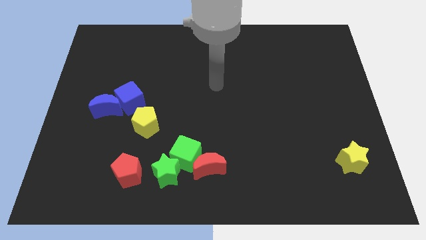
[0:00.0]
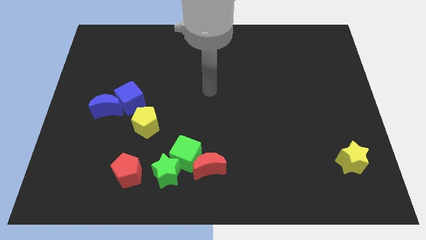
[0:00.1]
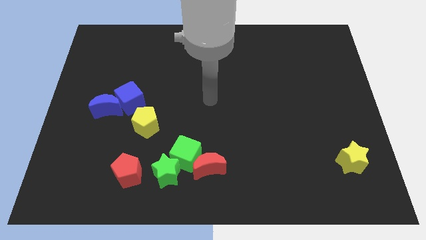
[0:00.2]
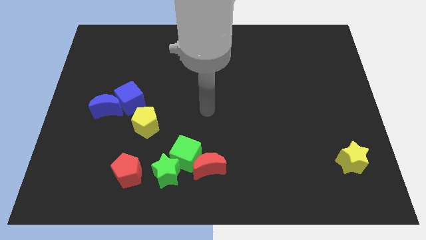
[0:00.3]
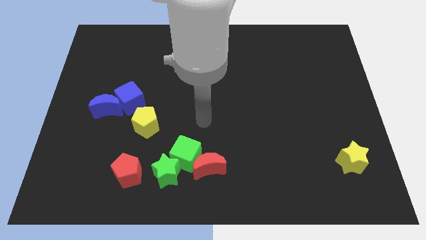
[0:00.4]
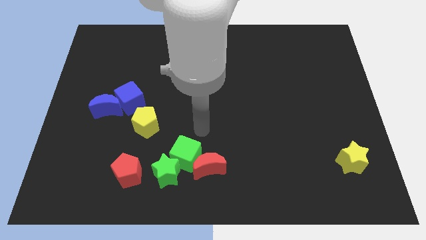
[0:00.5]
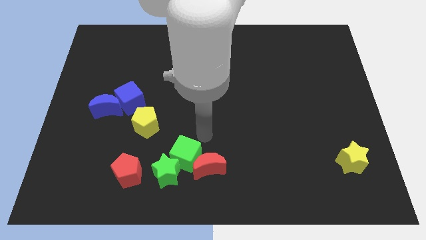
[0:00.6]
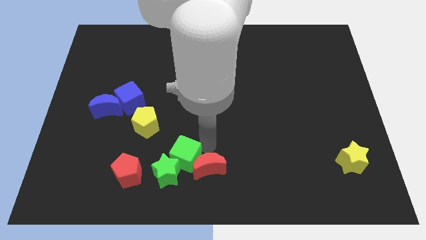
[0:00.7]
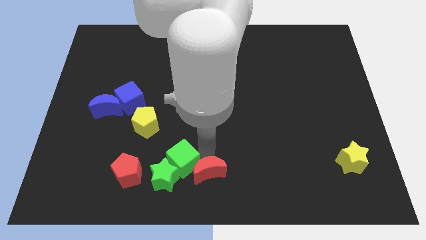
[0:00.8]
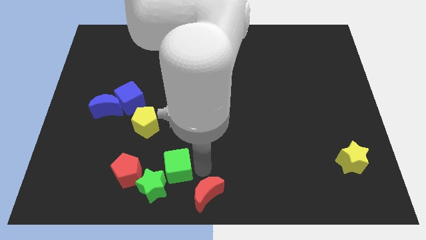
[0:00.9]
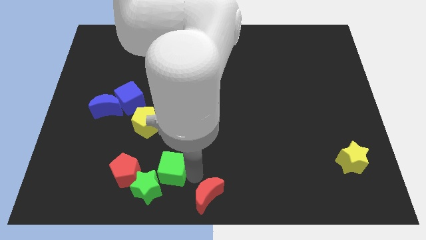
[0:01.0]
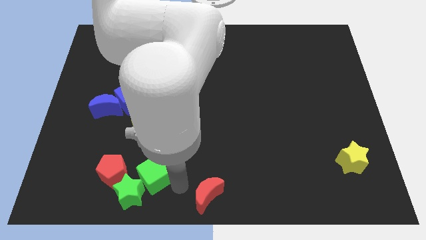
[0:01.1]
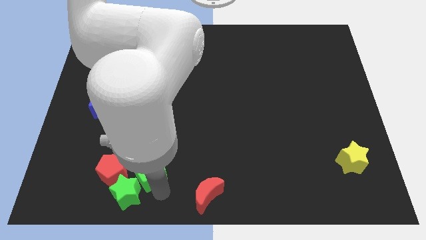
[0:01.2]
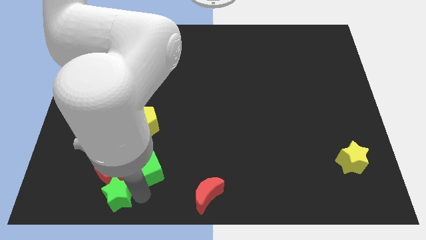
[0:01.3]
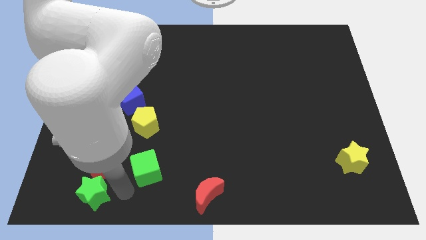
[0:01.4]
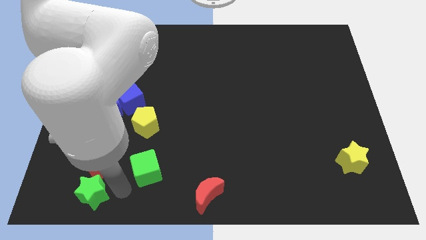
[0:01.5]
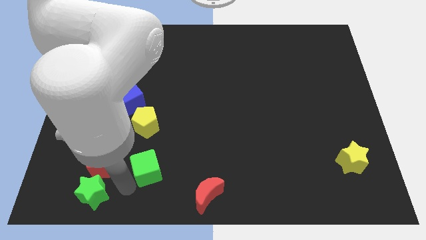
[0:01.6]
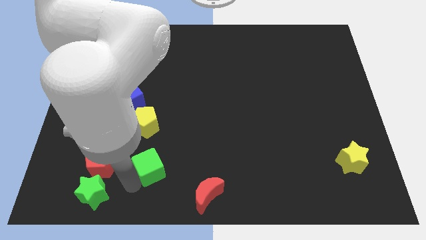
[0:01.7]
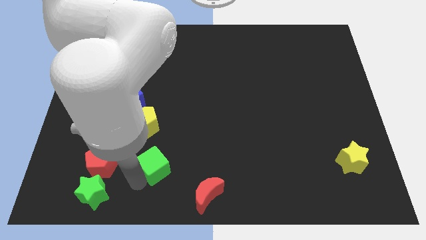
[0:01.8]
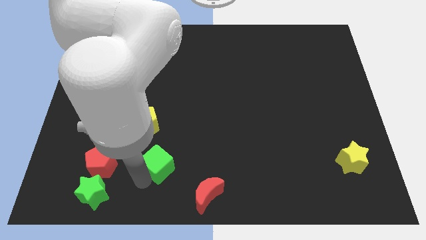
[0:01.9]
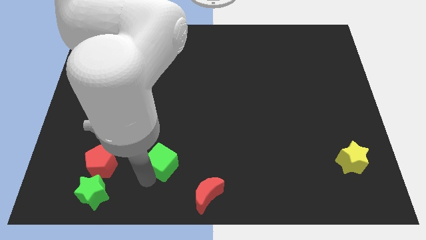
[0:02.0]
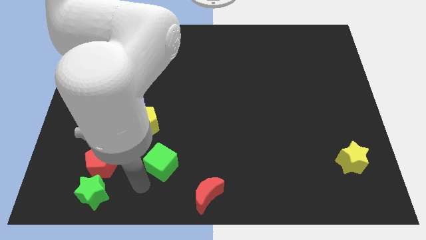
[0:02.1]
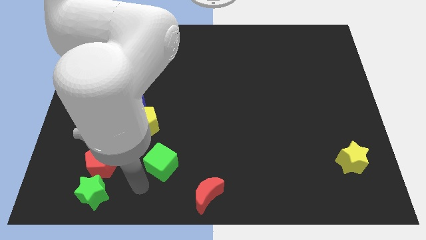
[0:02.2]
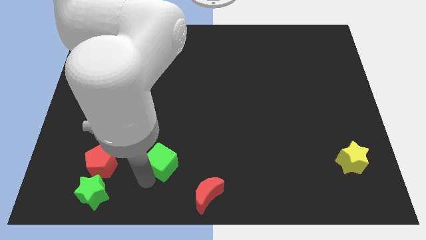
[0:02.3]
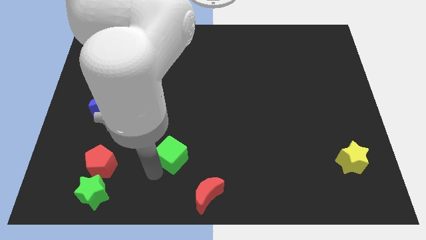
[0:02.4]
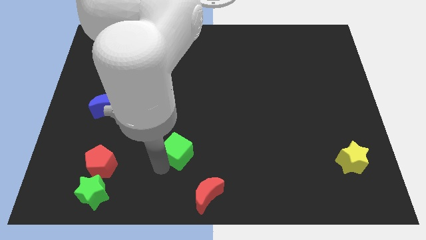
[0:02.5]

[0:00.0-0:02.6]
move the green cube away from the red moon and green star

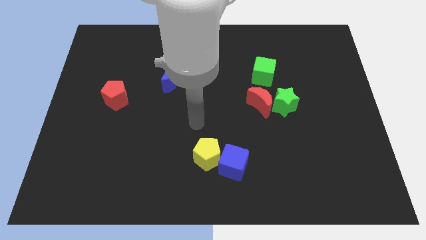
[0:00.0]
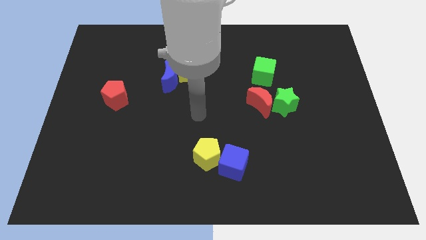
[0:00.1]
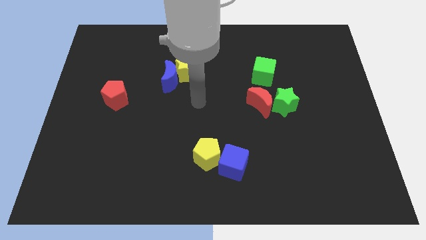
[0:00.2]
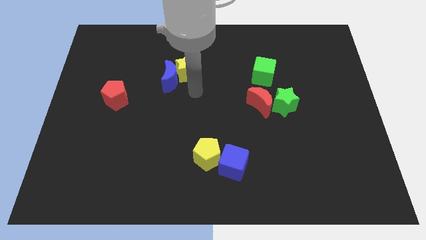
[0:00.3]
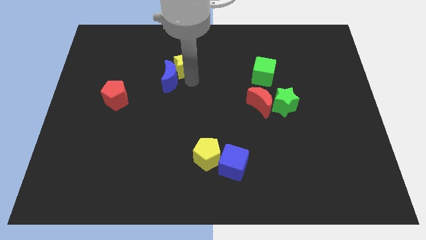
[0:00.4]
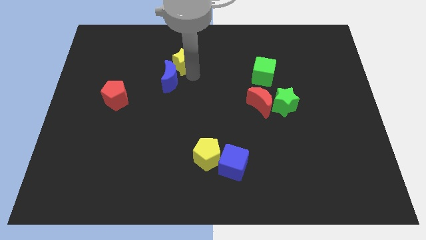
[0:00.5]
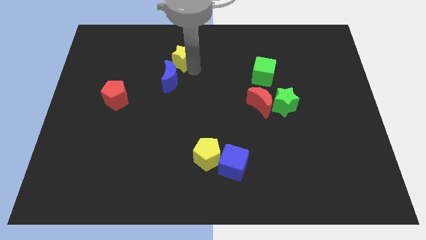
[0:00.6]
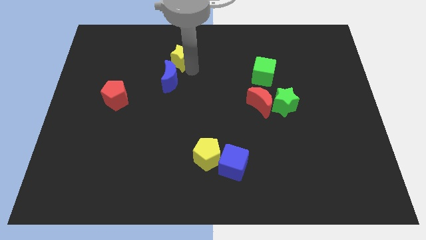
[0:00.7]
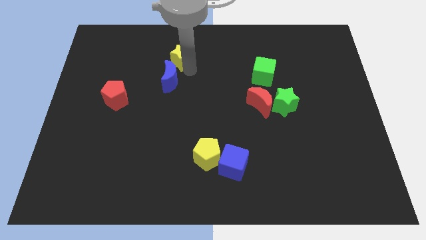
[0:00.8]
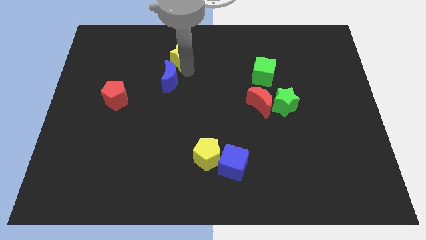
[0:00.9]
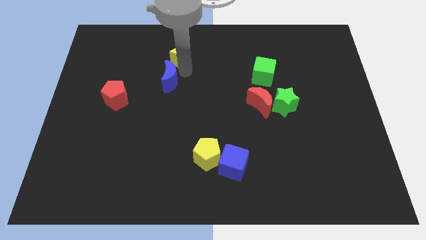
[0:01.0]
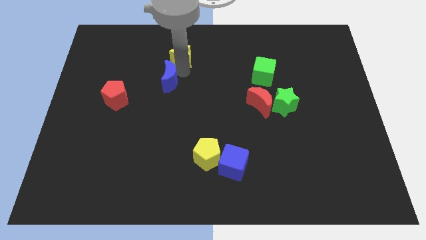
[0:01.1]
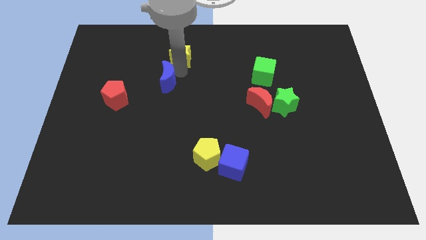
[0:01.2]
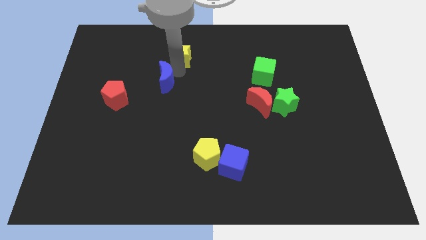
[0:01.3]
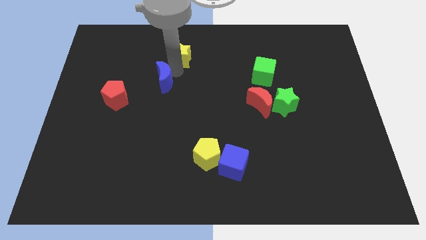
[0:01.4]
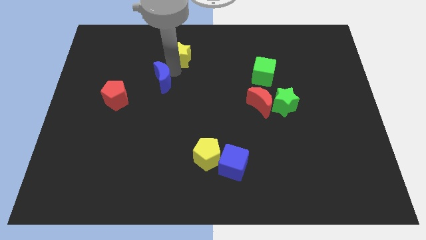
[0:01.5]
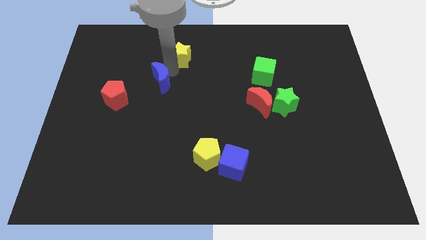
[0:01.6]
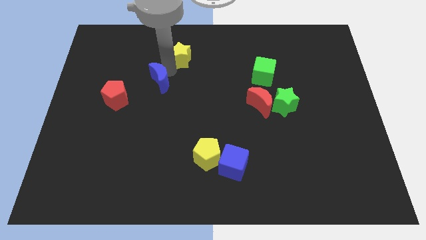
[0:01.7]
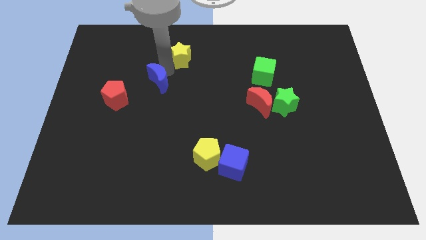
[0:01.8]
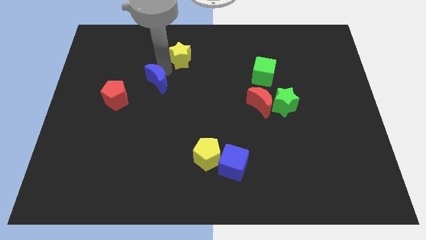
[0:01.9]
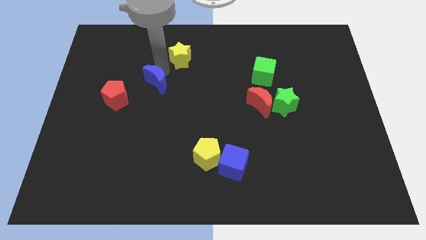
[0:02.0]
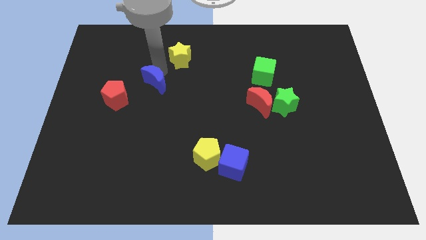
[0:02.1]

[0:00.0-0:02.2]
pull the blue moon apart from the yellow star

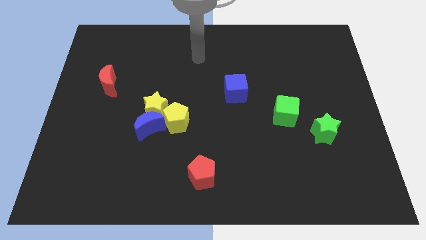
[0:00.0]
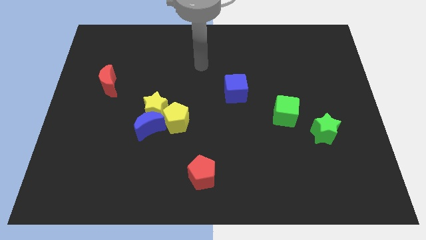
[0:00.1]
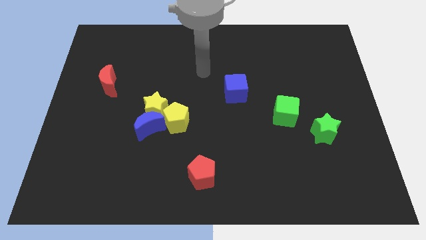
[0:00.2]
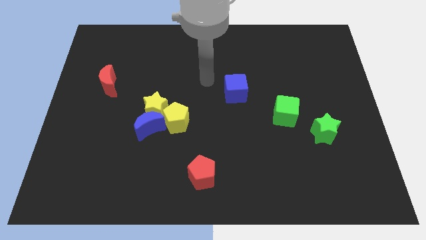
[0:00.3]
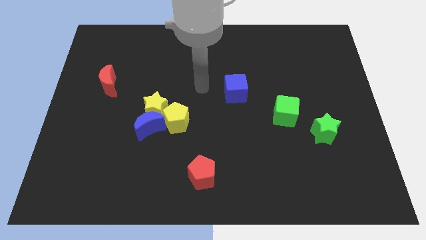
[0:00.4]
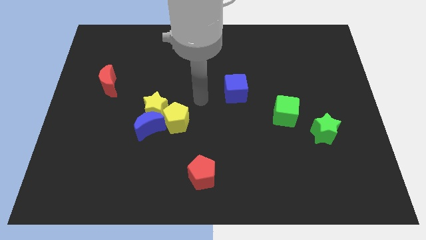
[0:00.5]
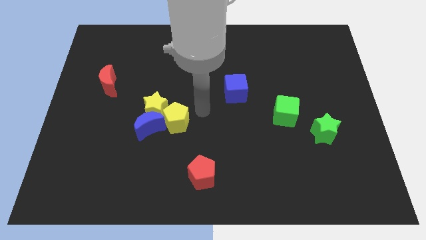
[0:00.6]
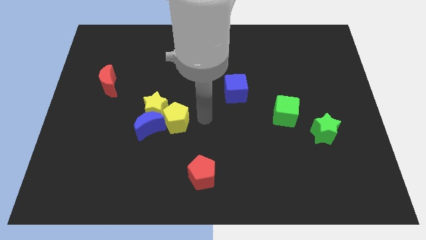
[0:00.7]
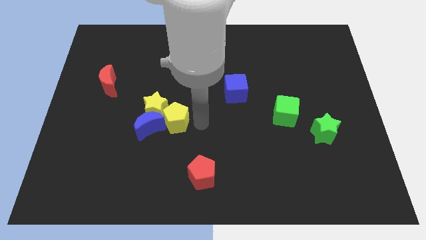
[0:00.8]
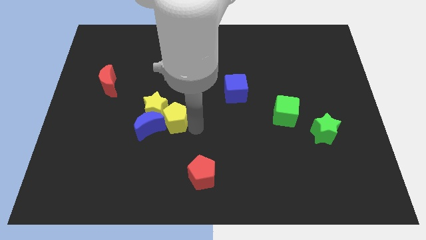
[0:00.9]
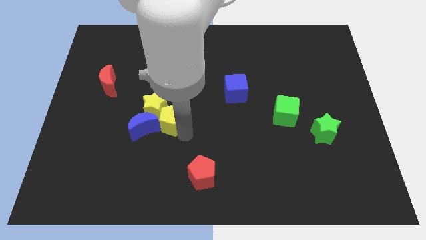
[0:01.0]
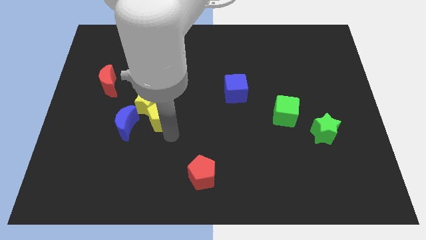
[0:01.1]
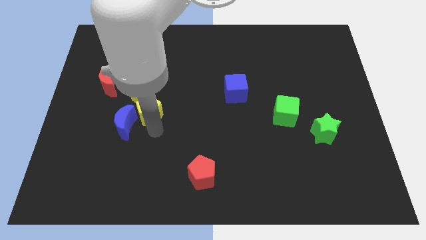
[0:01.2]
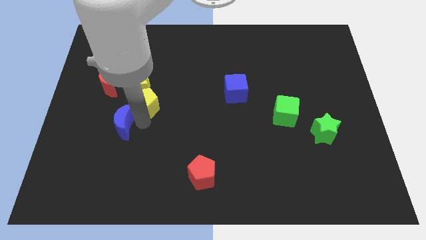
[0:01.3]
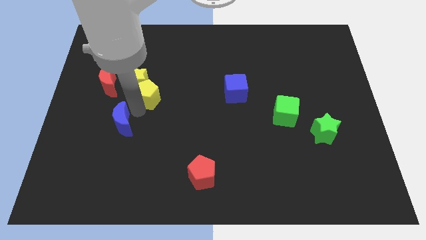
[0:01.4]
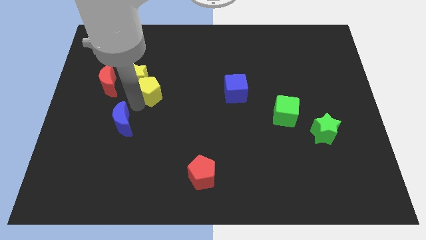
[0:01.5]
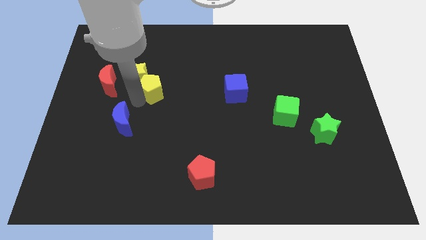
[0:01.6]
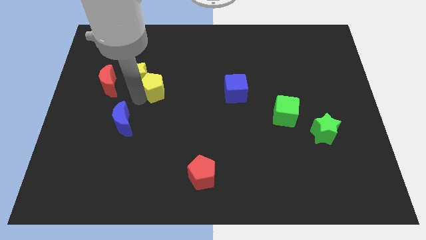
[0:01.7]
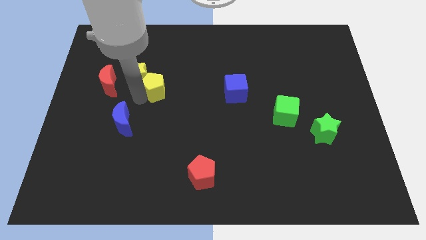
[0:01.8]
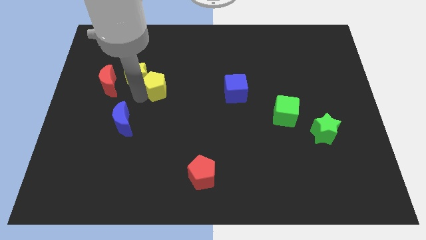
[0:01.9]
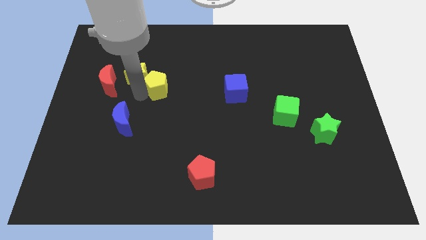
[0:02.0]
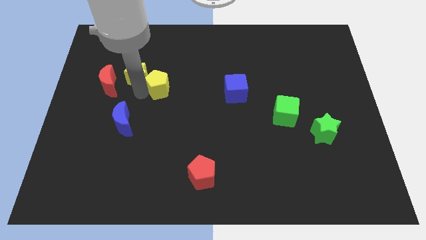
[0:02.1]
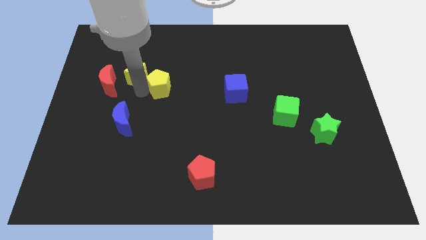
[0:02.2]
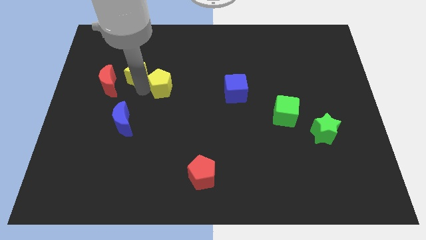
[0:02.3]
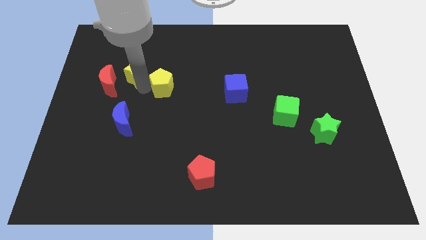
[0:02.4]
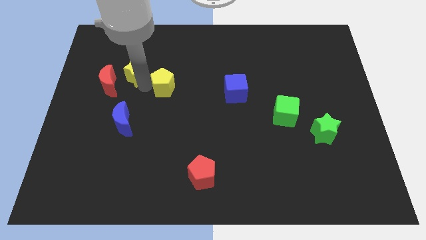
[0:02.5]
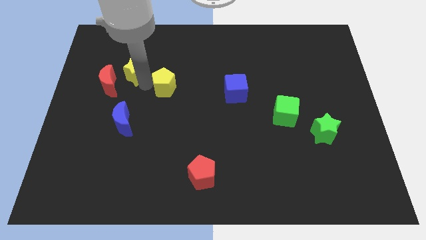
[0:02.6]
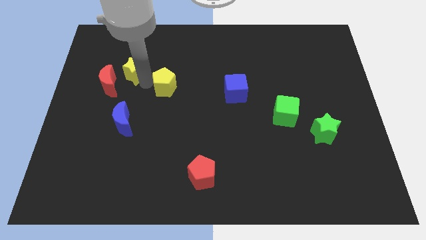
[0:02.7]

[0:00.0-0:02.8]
move the yellow star away from the blue moon and yellow pentagon

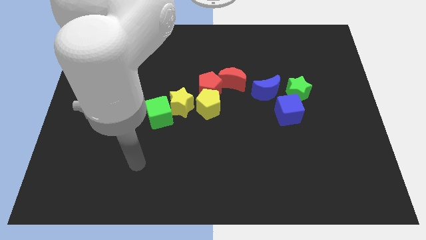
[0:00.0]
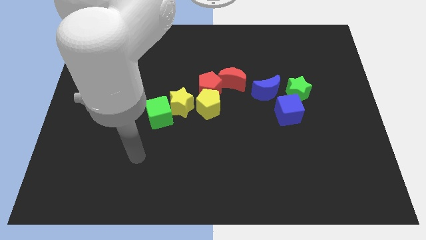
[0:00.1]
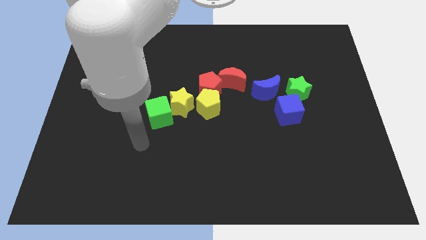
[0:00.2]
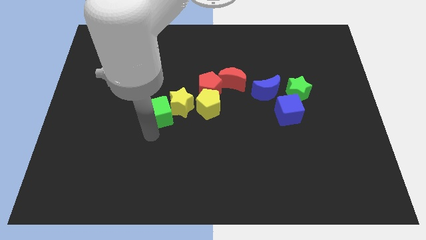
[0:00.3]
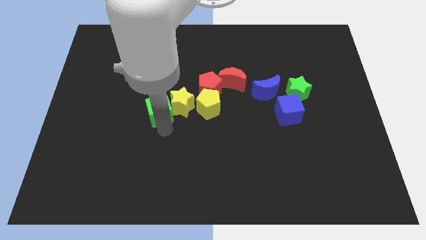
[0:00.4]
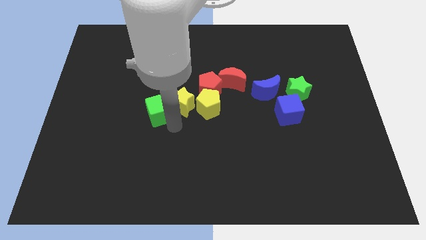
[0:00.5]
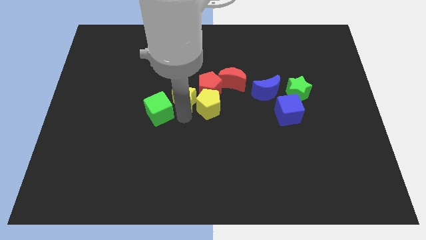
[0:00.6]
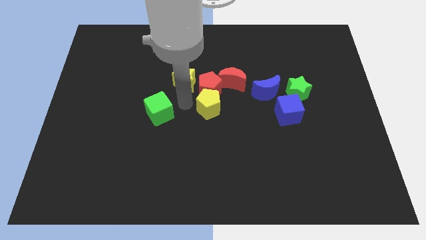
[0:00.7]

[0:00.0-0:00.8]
pull the green cube apart from the yellow star

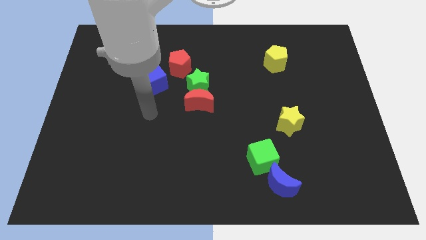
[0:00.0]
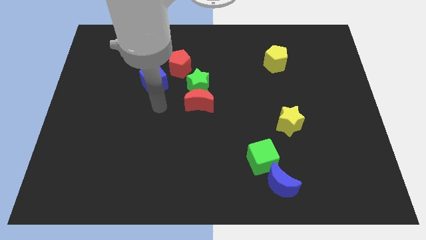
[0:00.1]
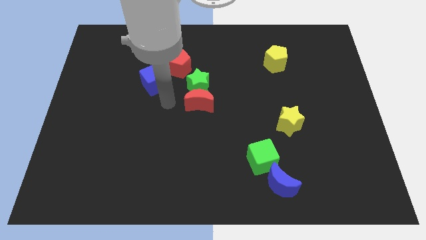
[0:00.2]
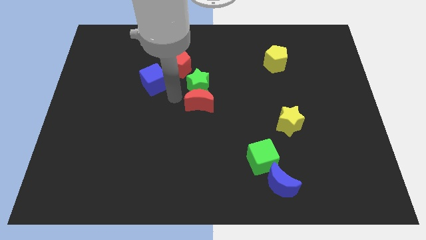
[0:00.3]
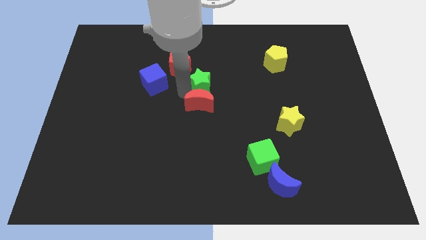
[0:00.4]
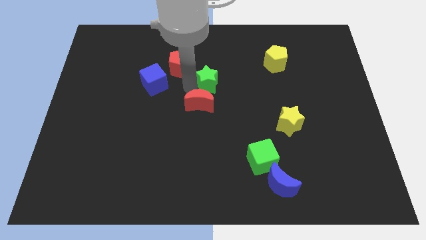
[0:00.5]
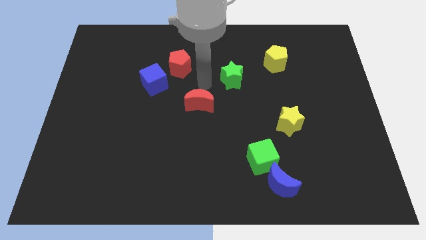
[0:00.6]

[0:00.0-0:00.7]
pull the red moon apart from the green star

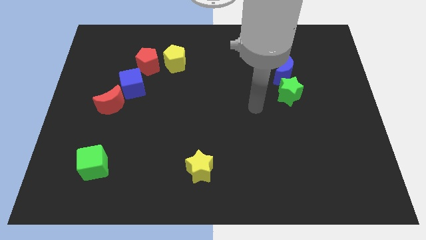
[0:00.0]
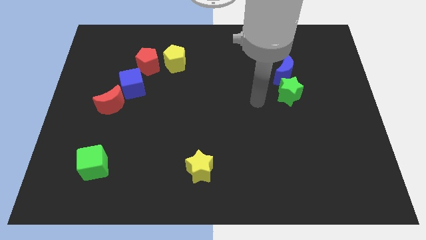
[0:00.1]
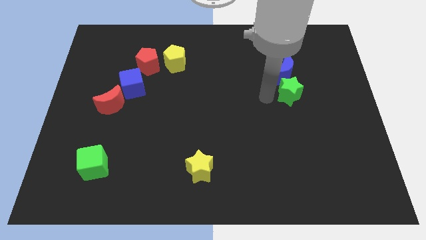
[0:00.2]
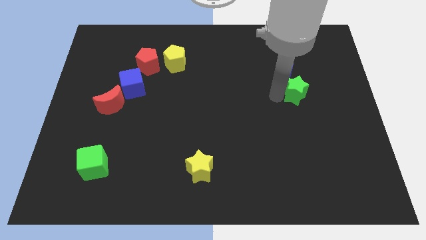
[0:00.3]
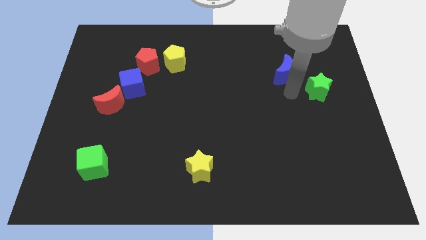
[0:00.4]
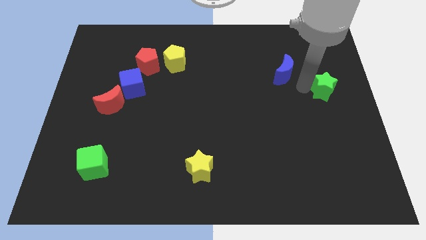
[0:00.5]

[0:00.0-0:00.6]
pull the blue moon apart from the green star
